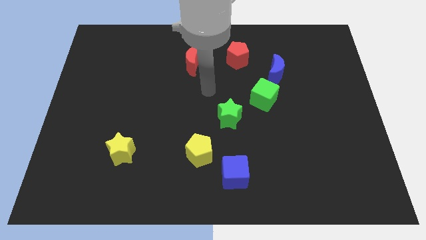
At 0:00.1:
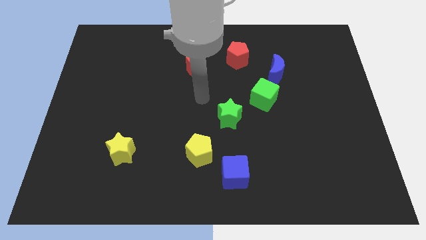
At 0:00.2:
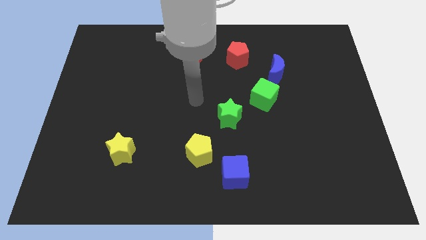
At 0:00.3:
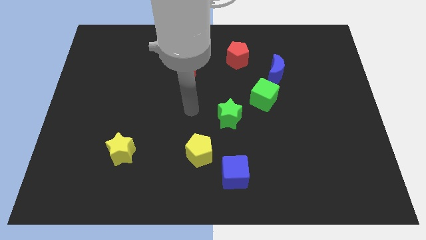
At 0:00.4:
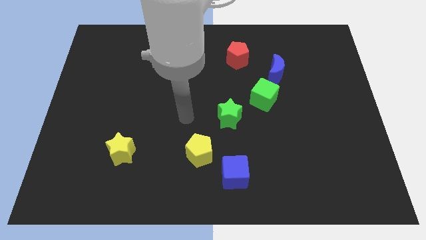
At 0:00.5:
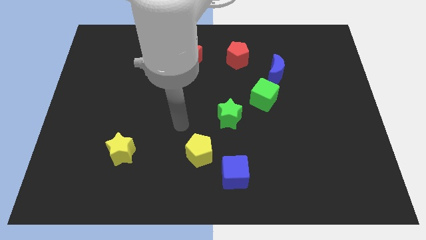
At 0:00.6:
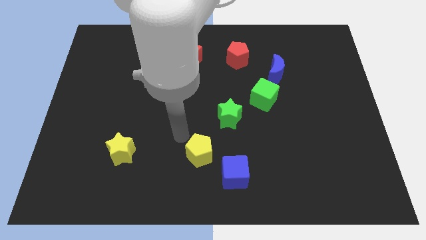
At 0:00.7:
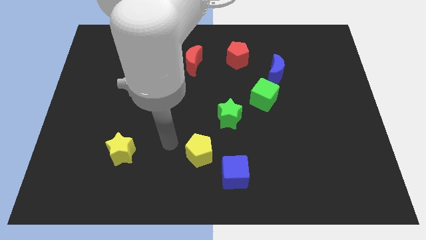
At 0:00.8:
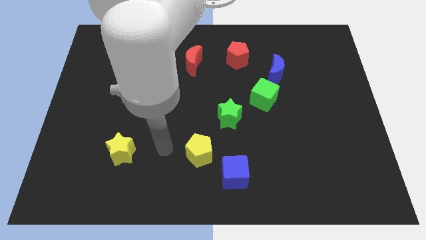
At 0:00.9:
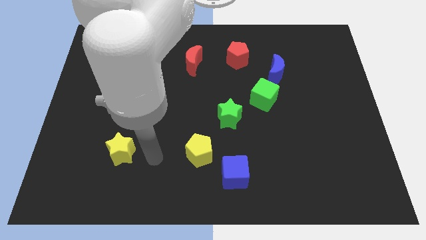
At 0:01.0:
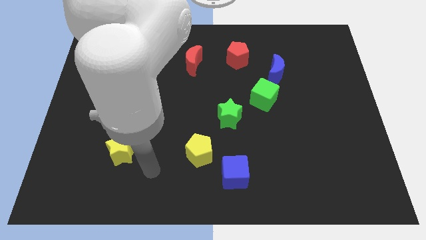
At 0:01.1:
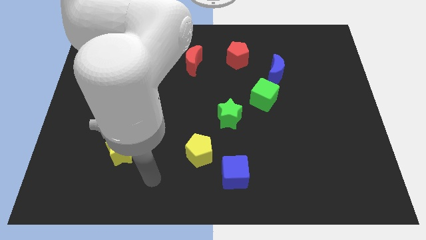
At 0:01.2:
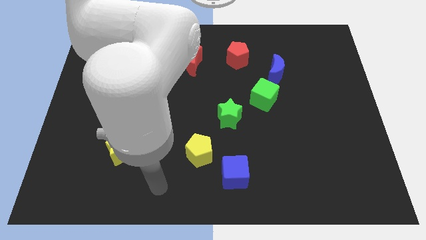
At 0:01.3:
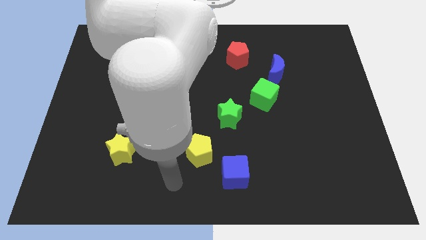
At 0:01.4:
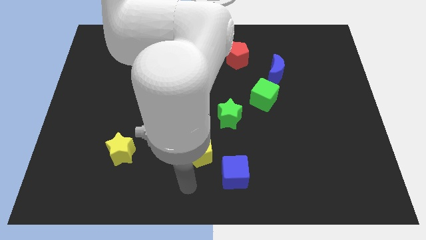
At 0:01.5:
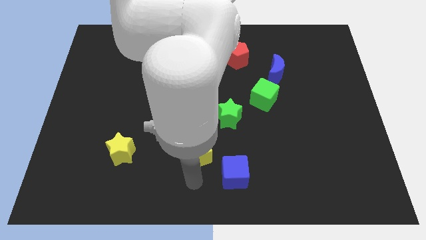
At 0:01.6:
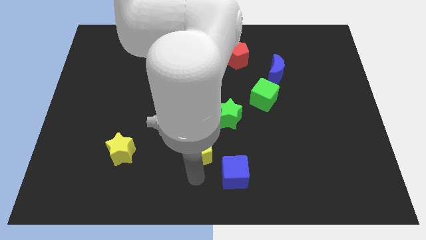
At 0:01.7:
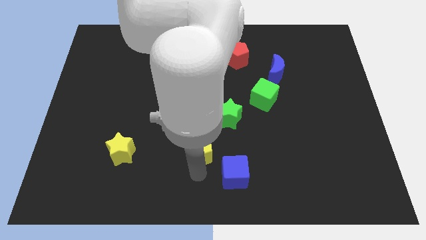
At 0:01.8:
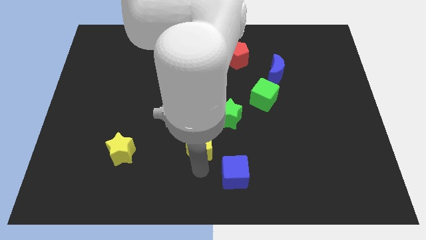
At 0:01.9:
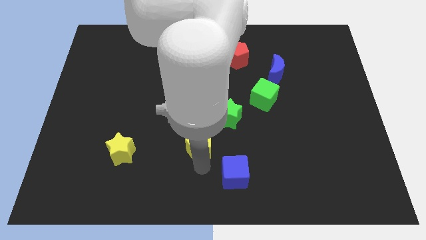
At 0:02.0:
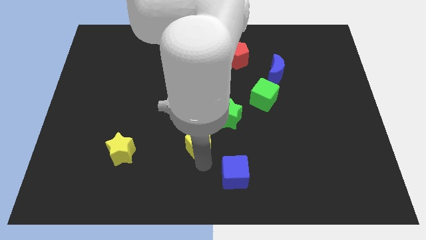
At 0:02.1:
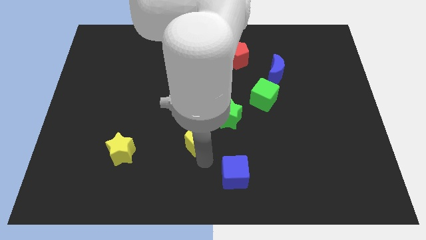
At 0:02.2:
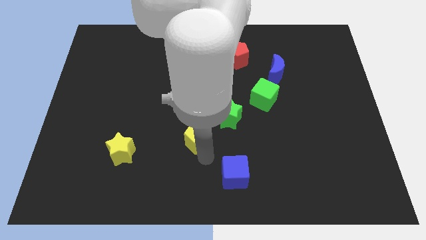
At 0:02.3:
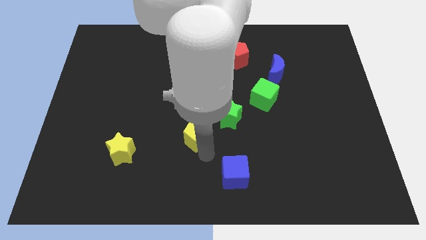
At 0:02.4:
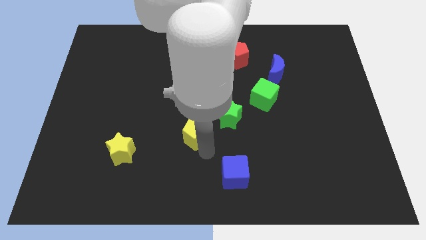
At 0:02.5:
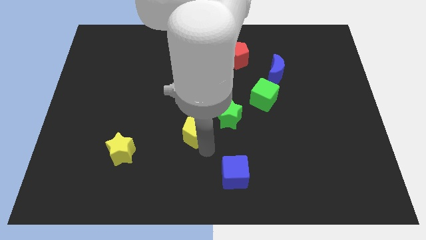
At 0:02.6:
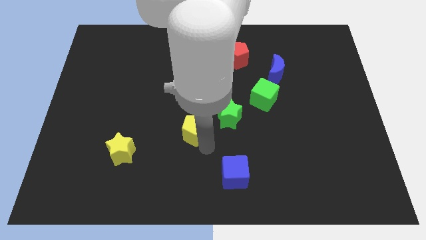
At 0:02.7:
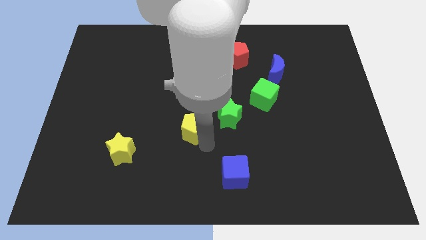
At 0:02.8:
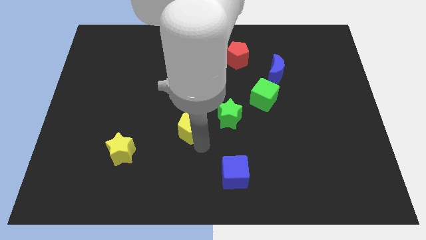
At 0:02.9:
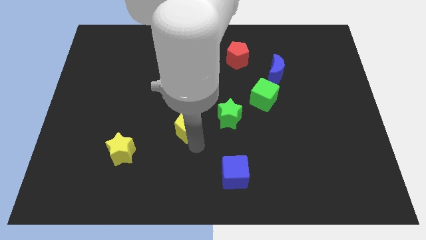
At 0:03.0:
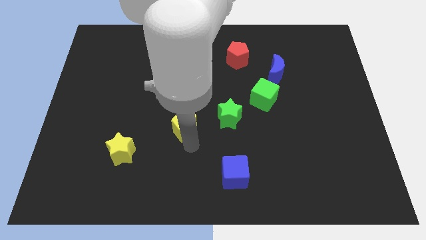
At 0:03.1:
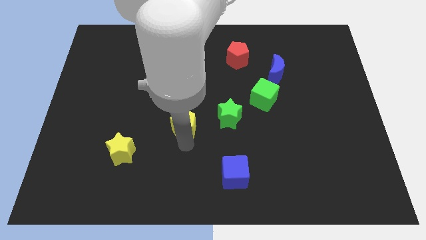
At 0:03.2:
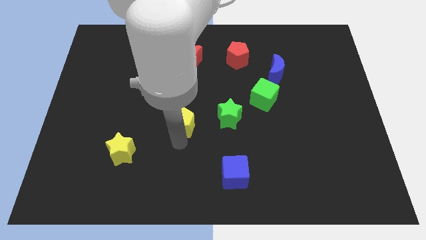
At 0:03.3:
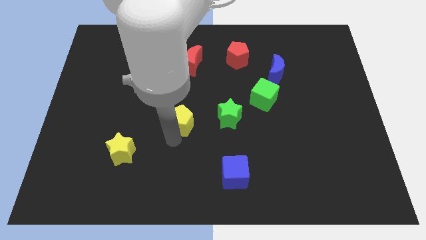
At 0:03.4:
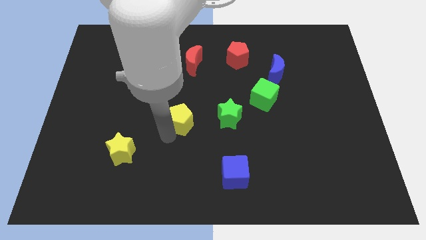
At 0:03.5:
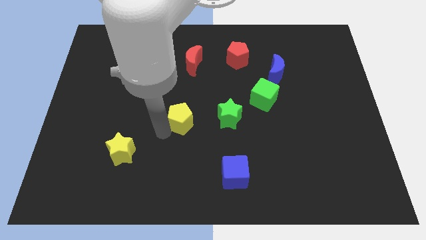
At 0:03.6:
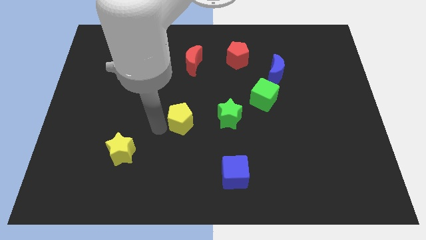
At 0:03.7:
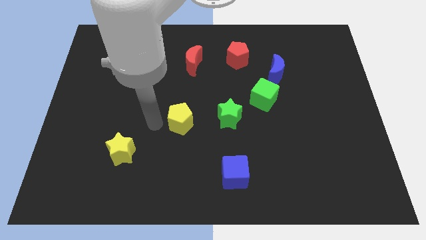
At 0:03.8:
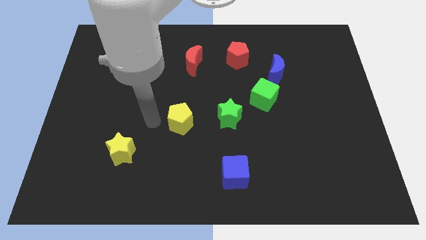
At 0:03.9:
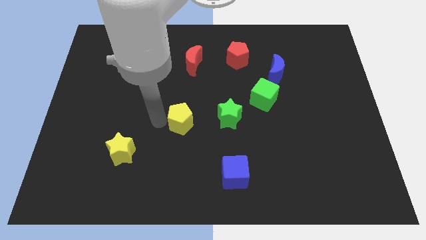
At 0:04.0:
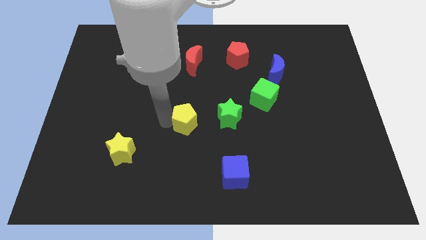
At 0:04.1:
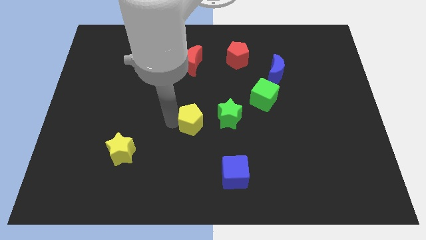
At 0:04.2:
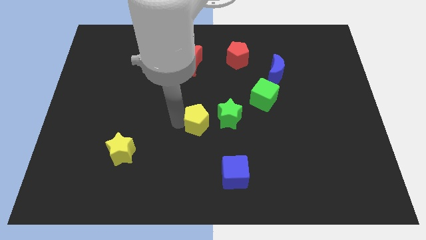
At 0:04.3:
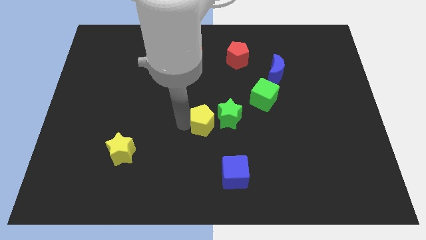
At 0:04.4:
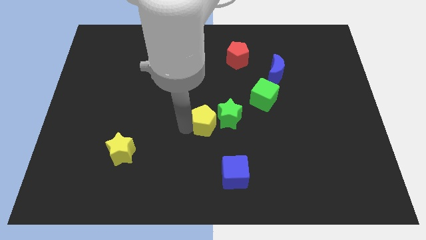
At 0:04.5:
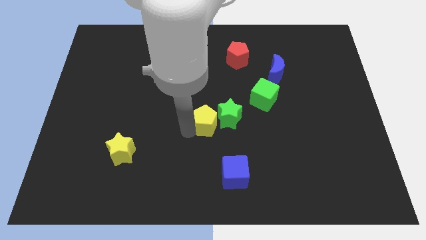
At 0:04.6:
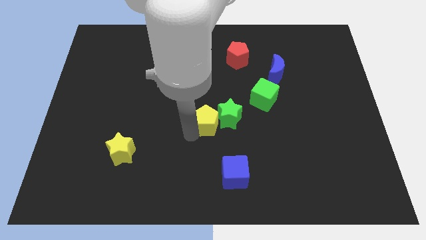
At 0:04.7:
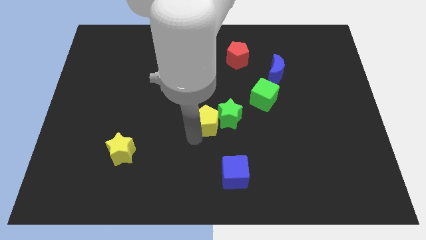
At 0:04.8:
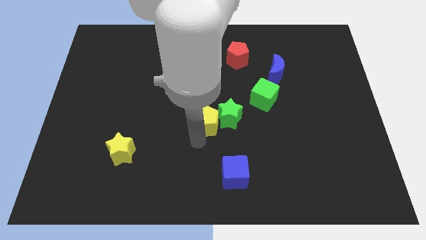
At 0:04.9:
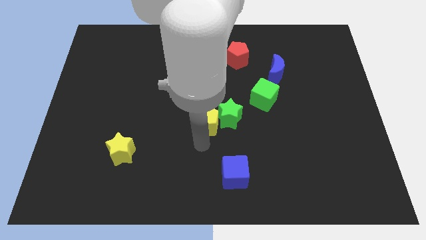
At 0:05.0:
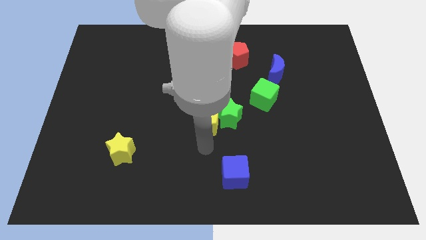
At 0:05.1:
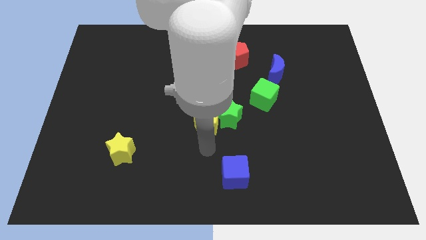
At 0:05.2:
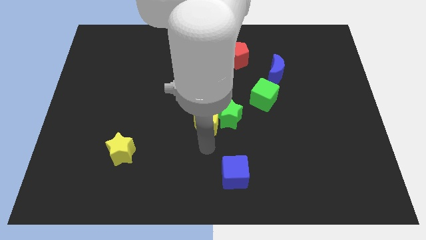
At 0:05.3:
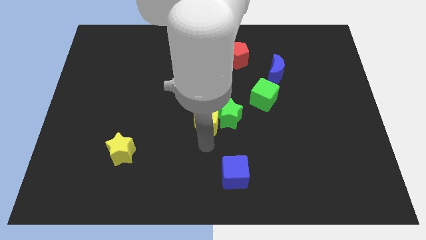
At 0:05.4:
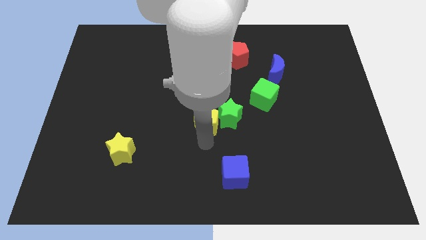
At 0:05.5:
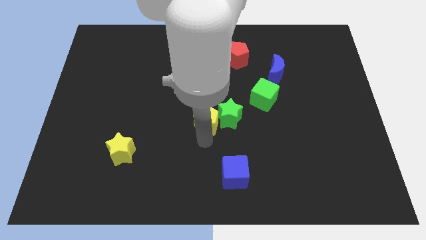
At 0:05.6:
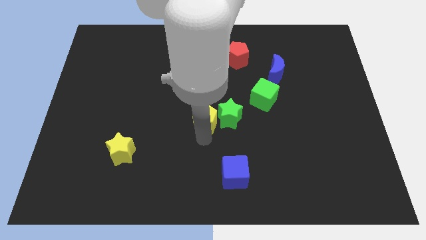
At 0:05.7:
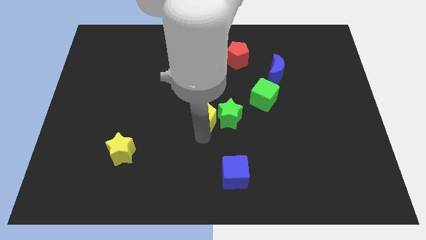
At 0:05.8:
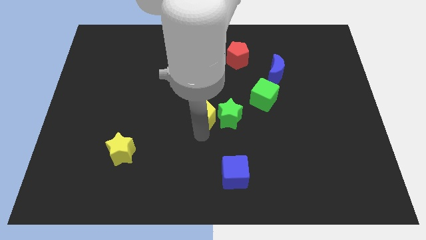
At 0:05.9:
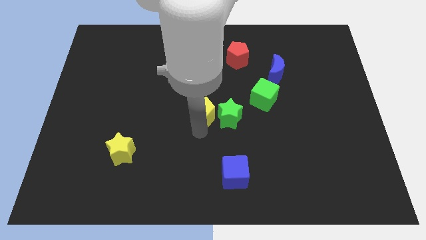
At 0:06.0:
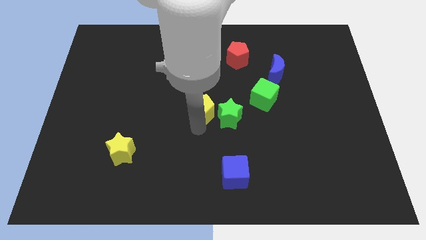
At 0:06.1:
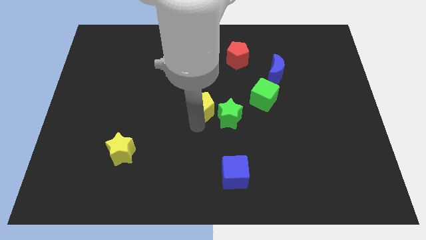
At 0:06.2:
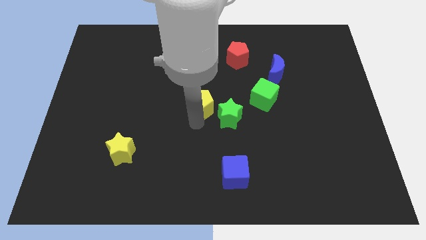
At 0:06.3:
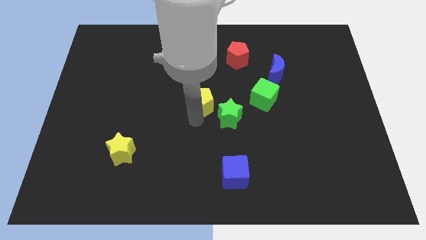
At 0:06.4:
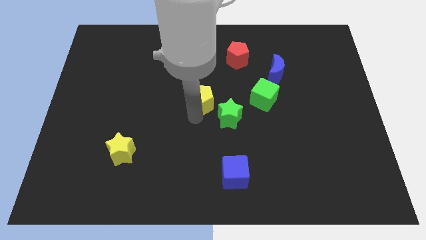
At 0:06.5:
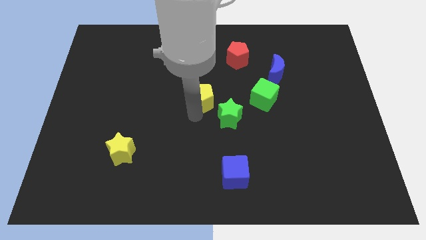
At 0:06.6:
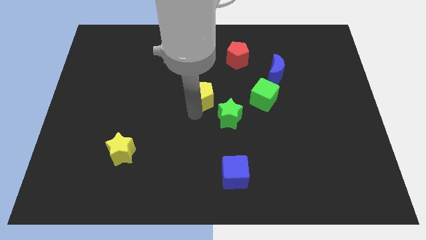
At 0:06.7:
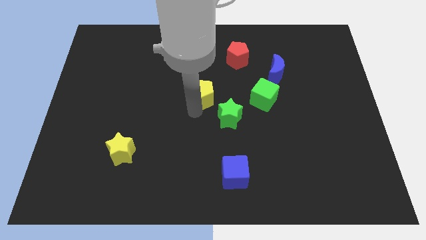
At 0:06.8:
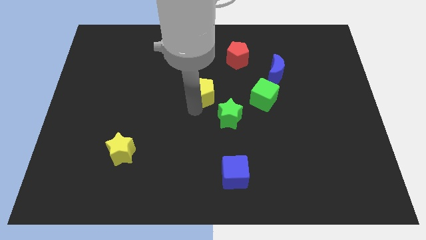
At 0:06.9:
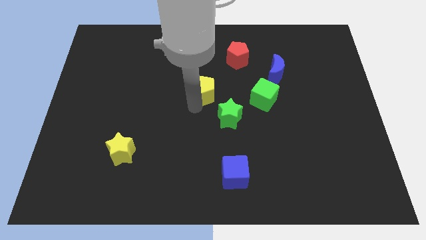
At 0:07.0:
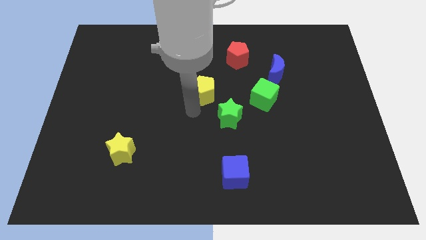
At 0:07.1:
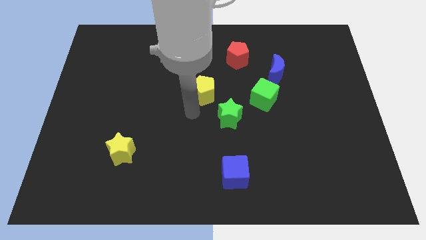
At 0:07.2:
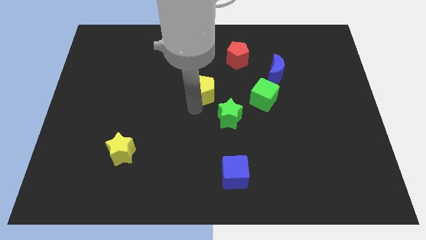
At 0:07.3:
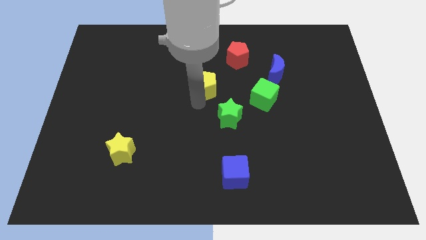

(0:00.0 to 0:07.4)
push the yellow pentagon to the bottom right of the red moon
